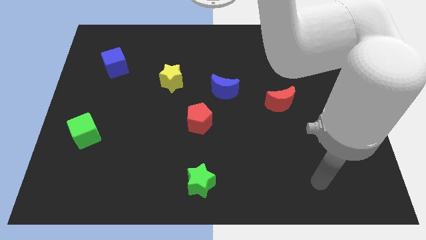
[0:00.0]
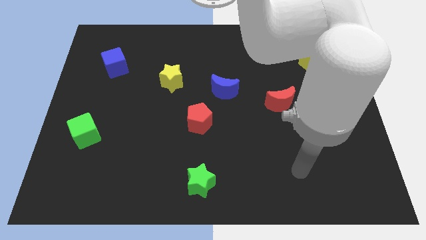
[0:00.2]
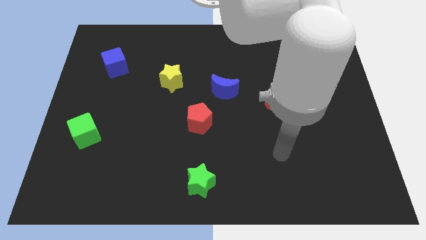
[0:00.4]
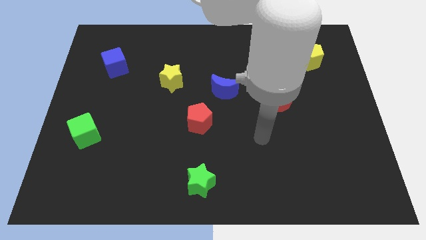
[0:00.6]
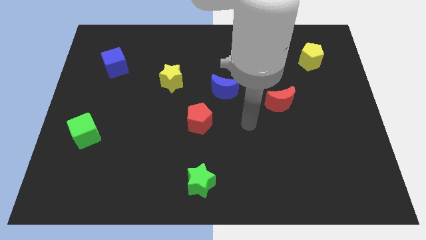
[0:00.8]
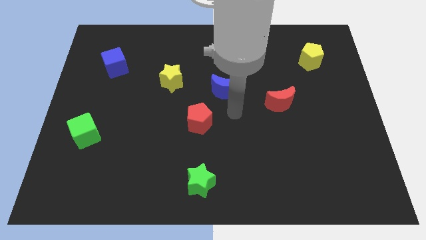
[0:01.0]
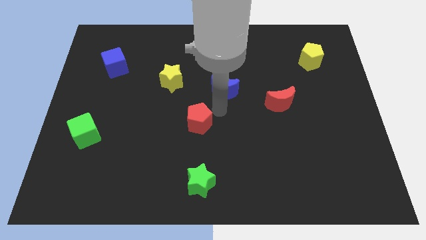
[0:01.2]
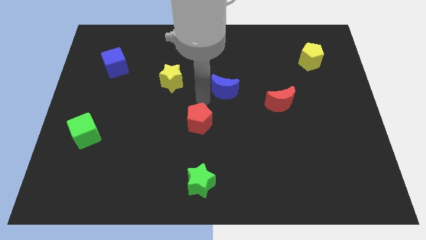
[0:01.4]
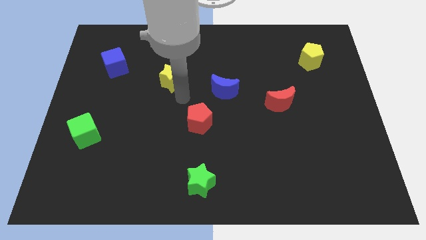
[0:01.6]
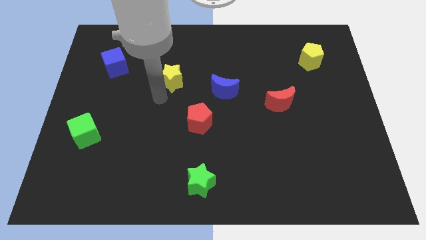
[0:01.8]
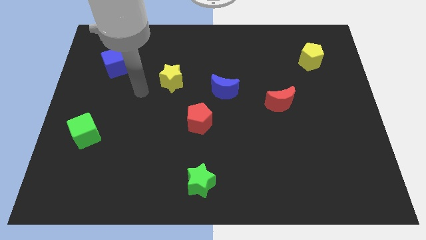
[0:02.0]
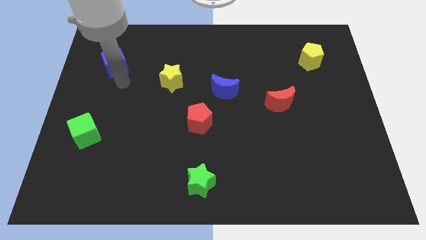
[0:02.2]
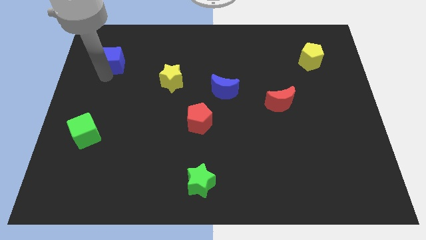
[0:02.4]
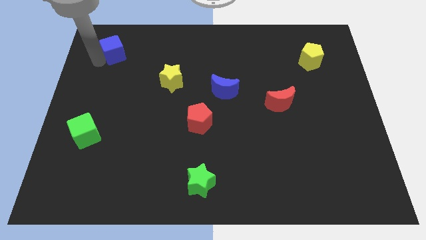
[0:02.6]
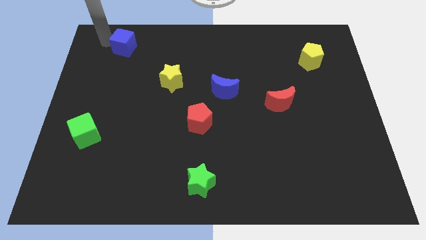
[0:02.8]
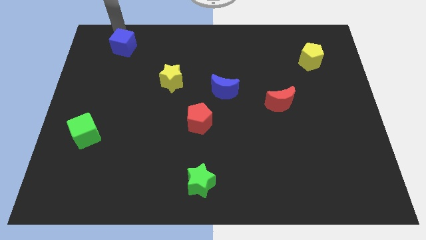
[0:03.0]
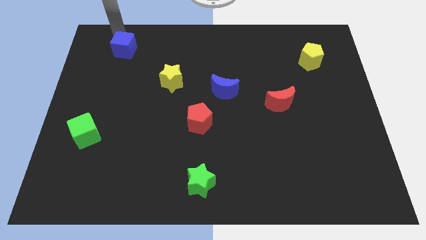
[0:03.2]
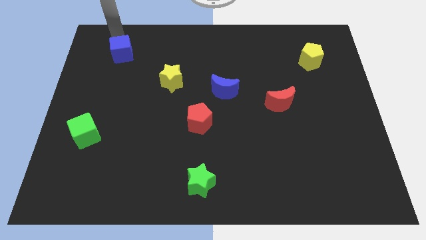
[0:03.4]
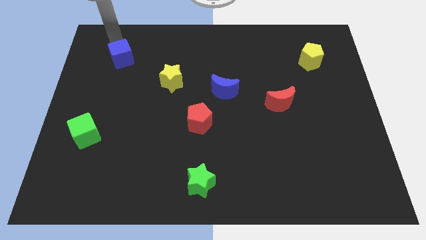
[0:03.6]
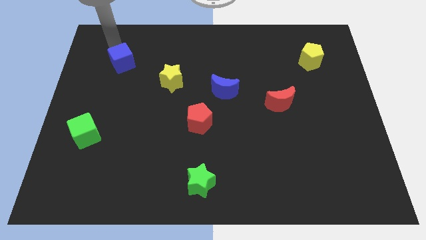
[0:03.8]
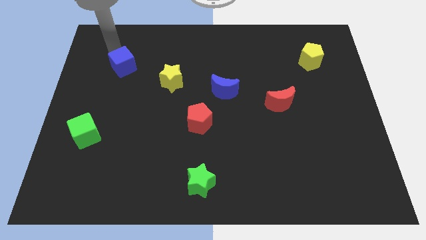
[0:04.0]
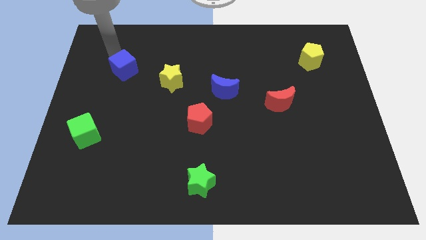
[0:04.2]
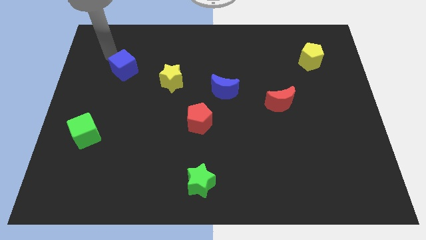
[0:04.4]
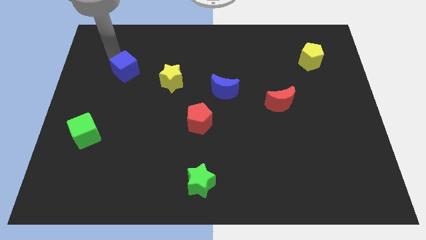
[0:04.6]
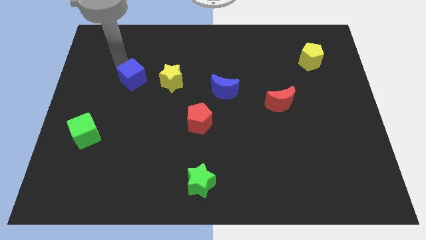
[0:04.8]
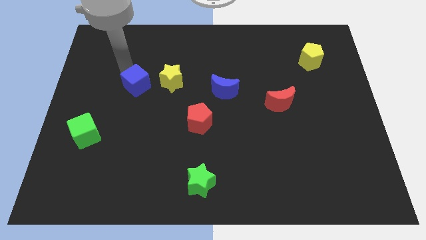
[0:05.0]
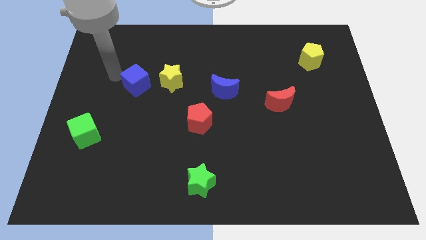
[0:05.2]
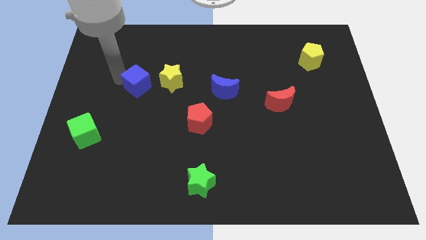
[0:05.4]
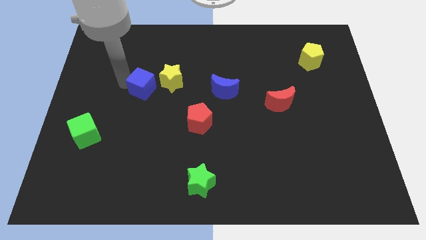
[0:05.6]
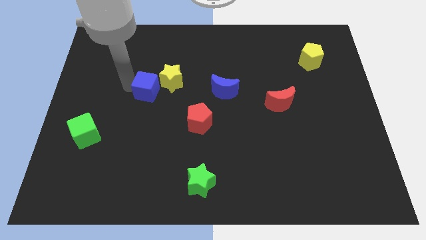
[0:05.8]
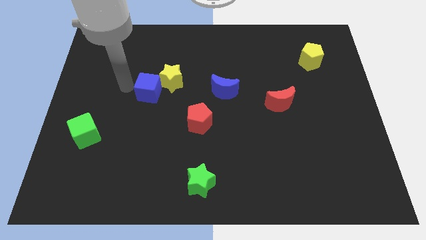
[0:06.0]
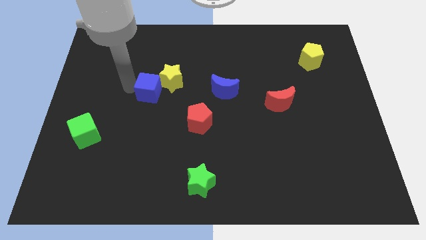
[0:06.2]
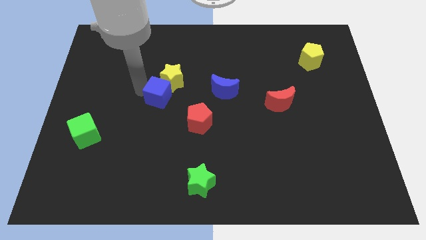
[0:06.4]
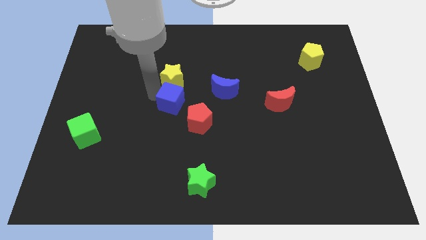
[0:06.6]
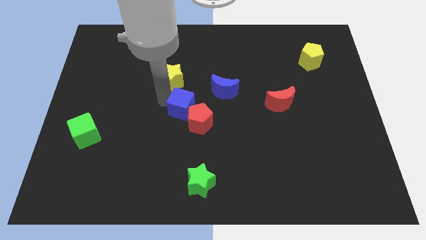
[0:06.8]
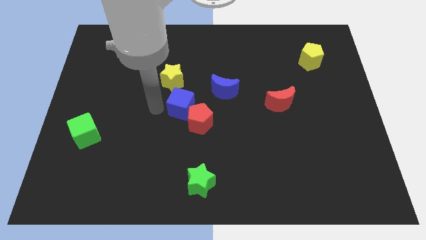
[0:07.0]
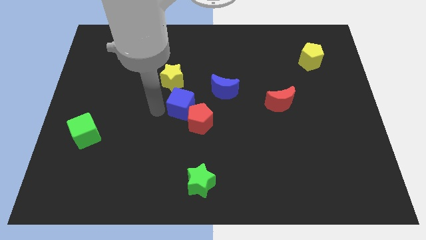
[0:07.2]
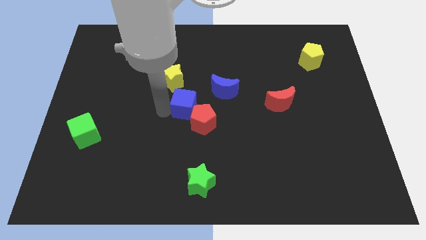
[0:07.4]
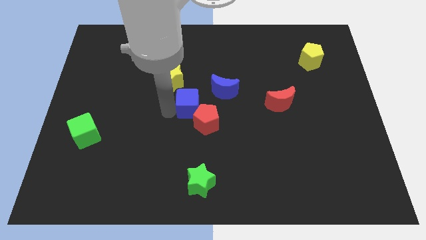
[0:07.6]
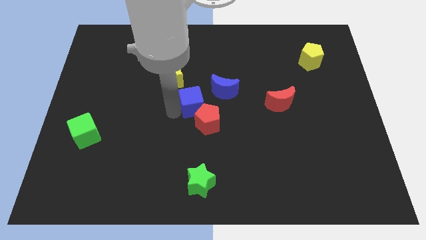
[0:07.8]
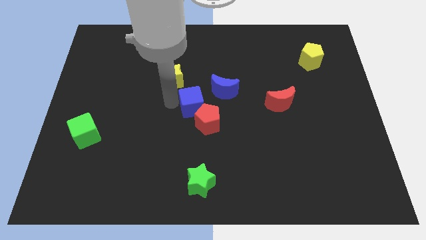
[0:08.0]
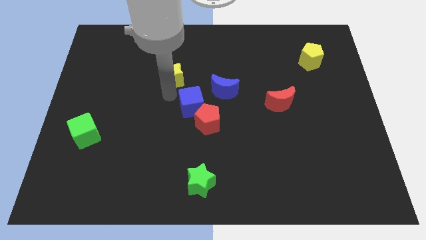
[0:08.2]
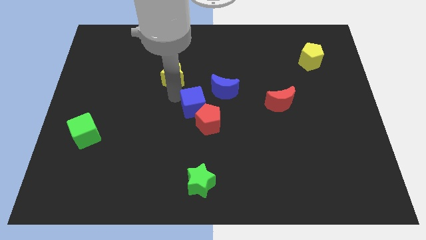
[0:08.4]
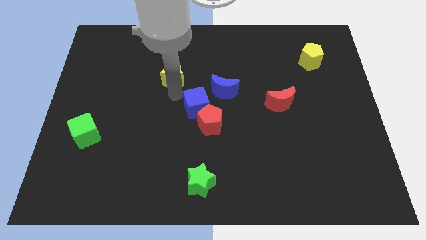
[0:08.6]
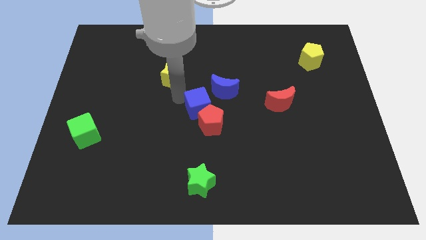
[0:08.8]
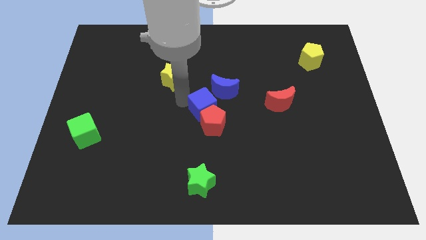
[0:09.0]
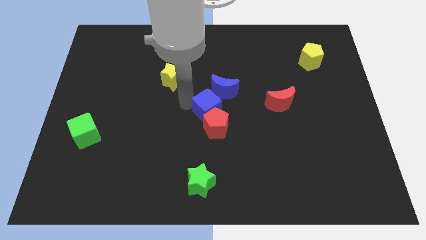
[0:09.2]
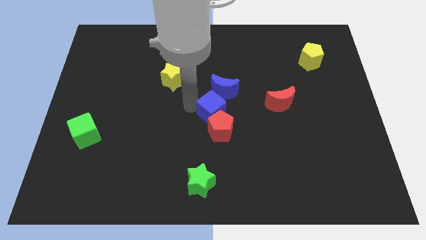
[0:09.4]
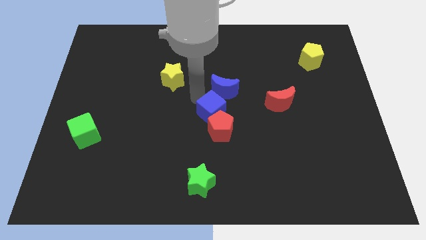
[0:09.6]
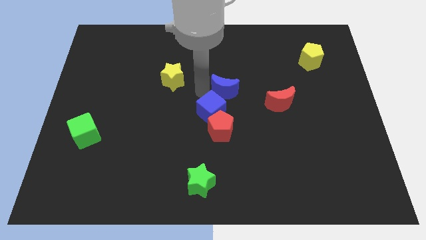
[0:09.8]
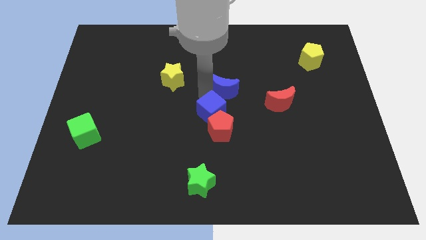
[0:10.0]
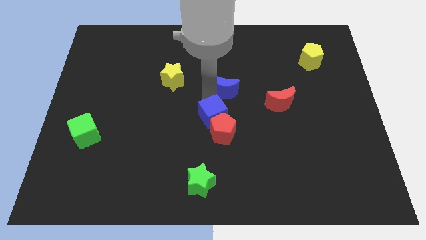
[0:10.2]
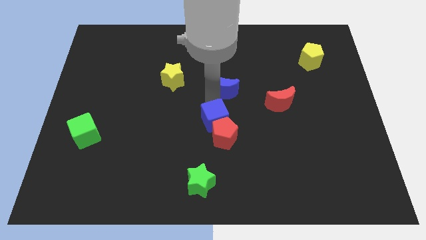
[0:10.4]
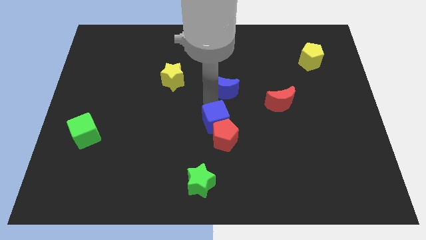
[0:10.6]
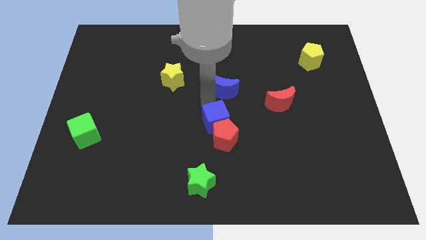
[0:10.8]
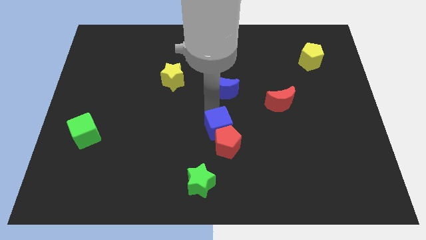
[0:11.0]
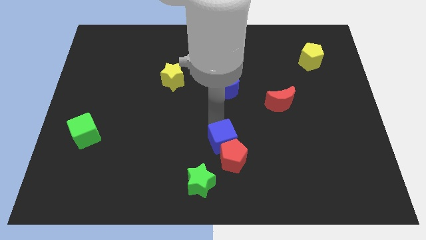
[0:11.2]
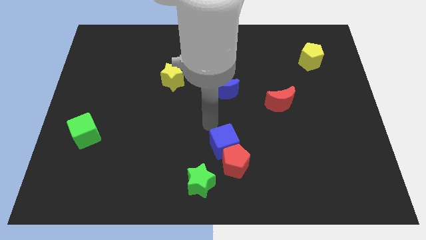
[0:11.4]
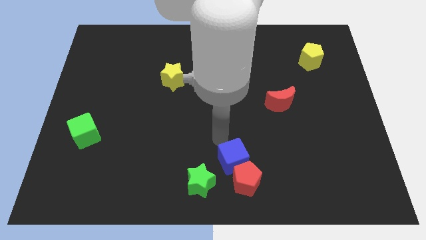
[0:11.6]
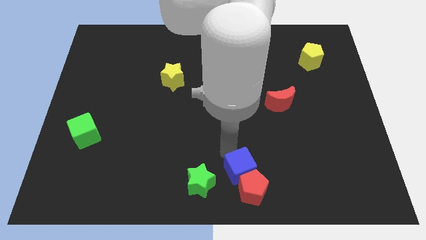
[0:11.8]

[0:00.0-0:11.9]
put the blue cube to the right of the green star

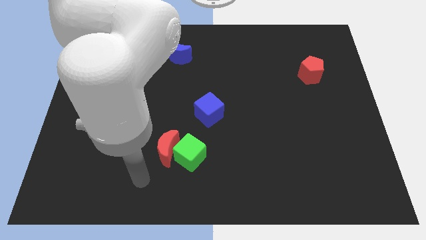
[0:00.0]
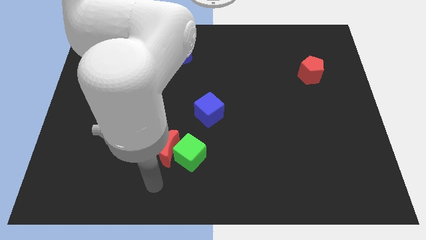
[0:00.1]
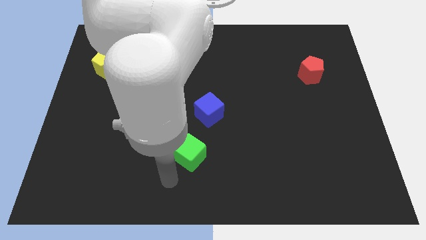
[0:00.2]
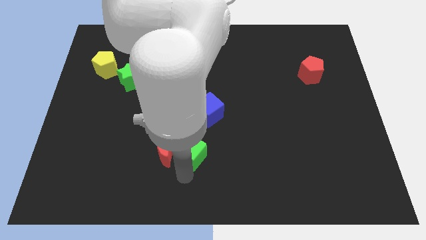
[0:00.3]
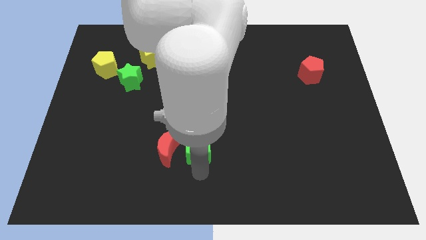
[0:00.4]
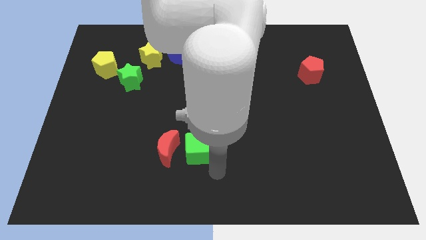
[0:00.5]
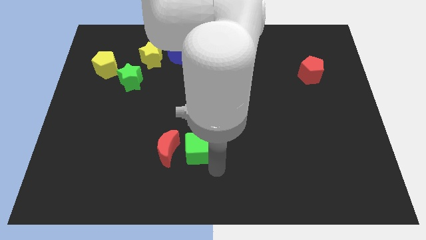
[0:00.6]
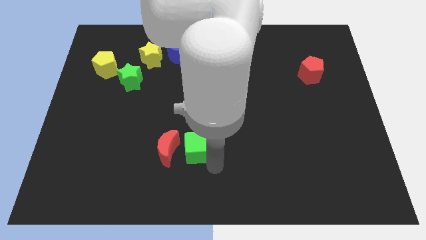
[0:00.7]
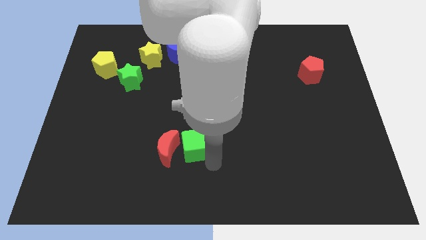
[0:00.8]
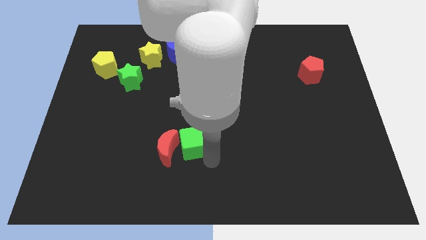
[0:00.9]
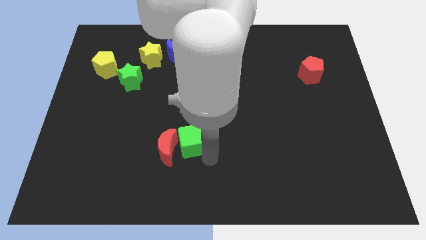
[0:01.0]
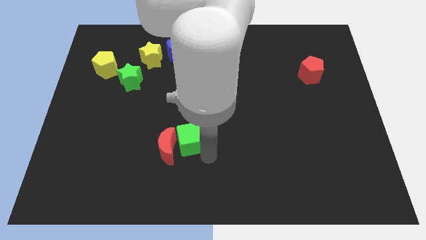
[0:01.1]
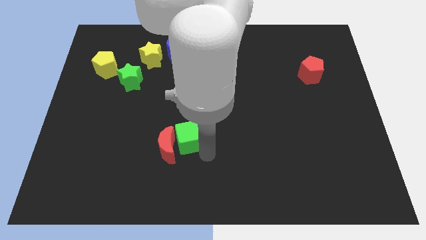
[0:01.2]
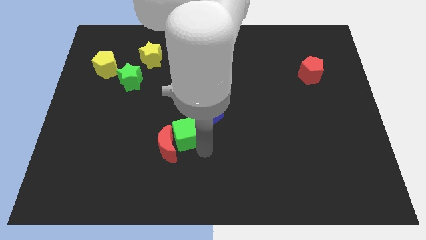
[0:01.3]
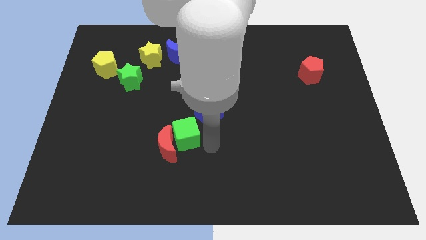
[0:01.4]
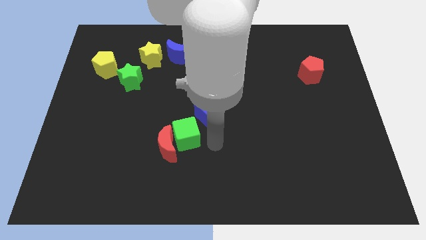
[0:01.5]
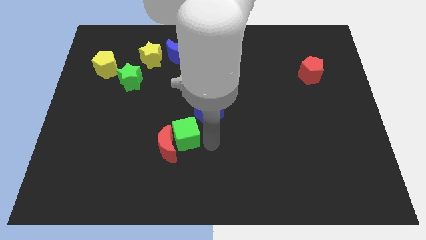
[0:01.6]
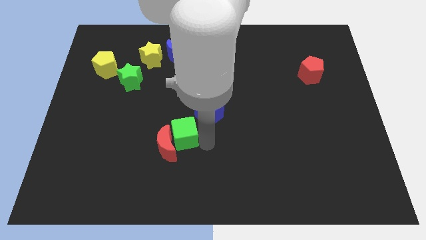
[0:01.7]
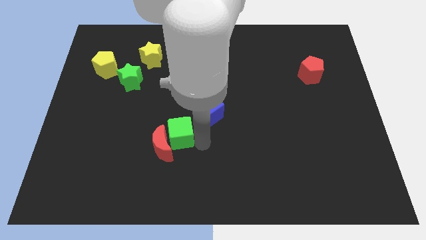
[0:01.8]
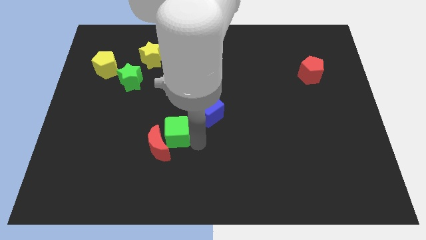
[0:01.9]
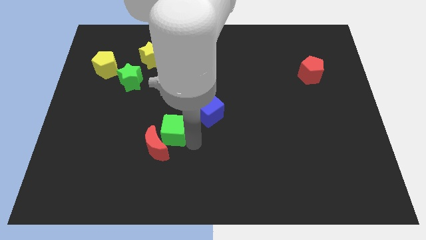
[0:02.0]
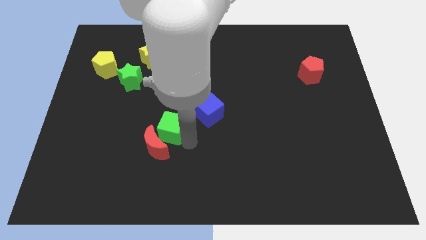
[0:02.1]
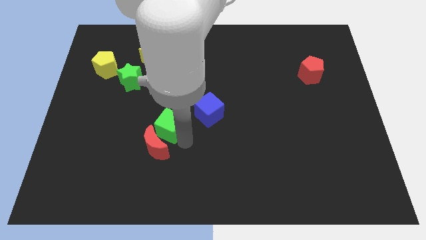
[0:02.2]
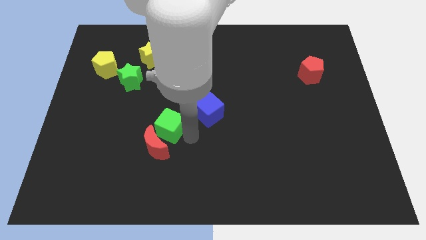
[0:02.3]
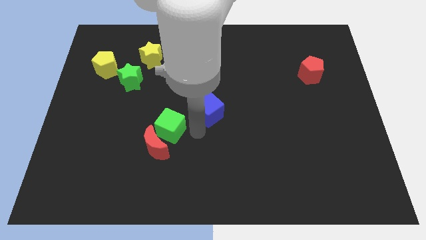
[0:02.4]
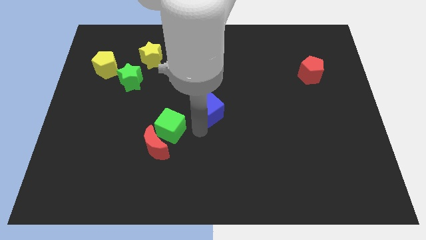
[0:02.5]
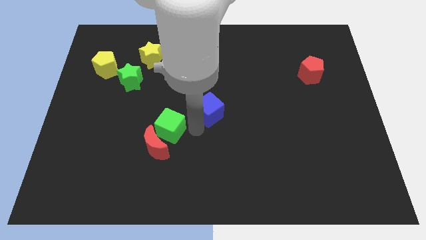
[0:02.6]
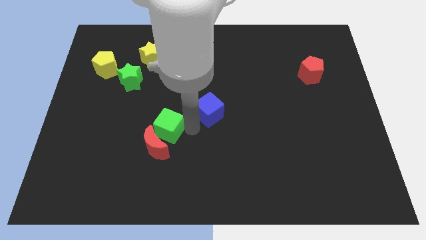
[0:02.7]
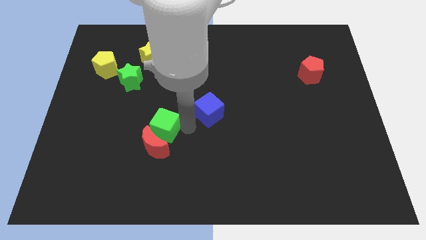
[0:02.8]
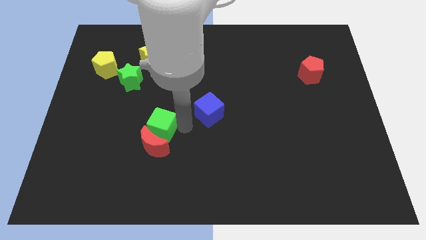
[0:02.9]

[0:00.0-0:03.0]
move the green cube to the top left of the red moon
